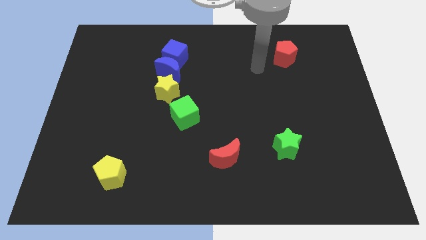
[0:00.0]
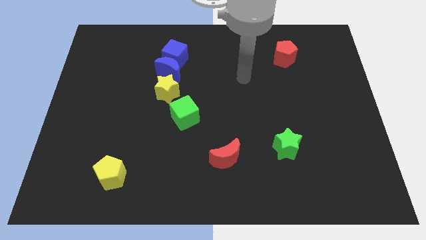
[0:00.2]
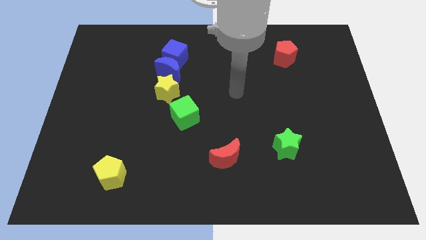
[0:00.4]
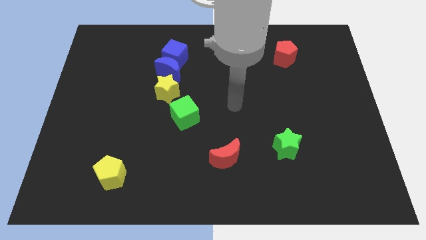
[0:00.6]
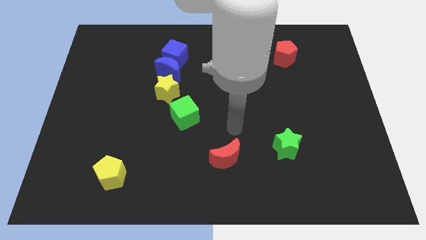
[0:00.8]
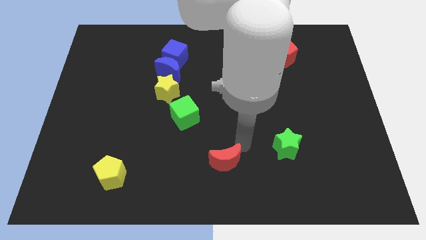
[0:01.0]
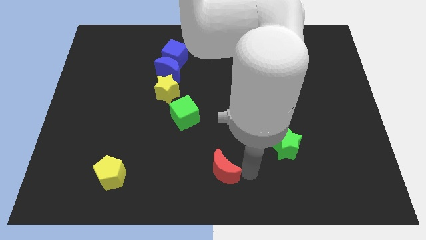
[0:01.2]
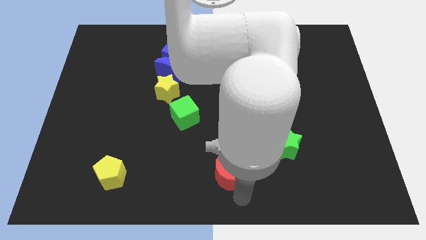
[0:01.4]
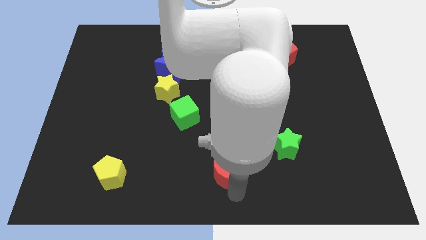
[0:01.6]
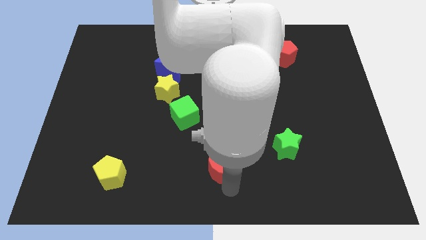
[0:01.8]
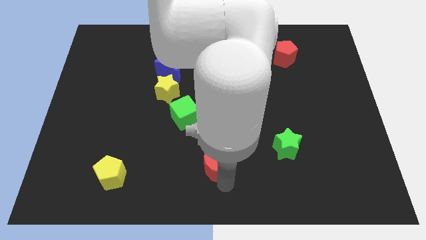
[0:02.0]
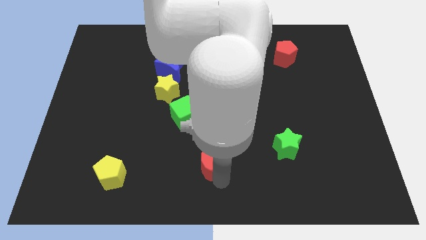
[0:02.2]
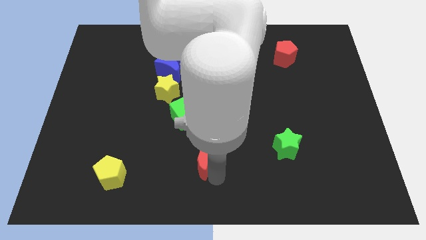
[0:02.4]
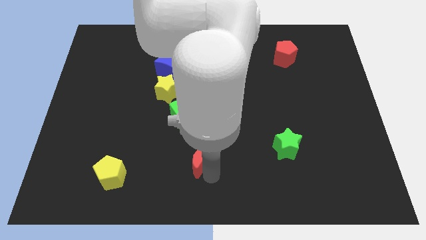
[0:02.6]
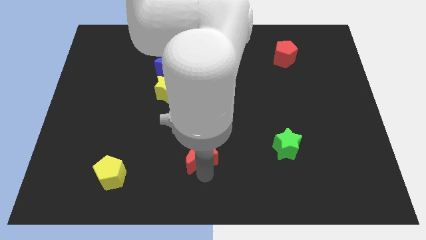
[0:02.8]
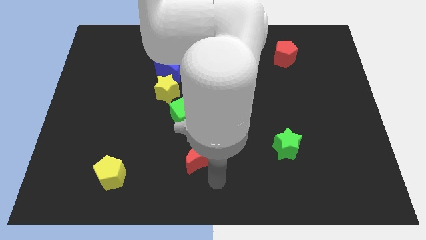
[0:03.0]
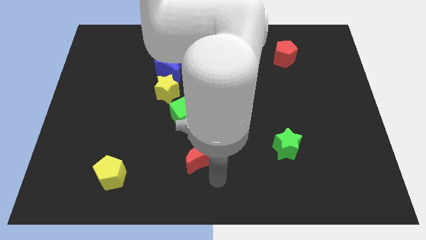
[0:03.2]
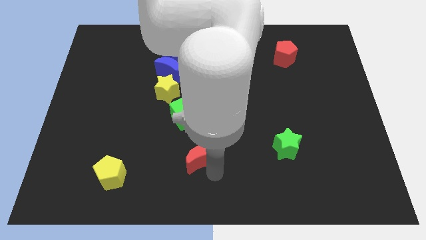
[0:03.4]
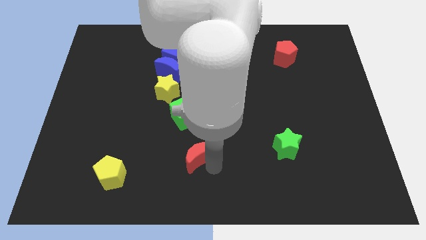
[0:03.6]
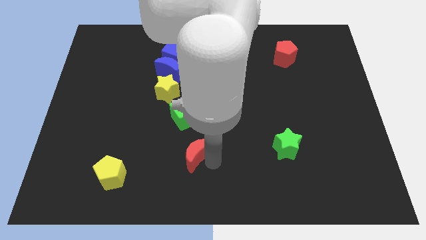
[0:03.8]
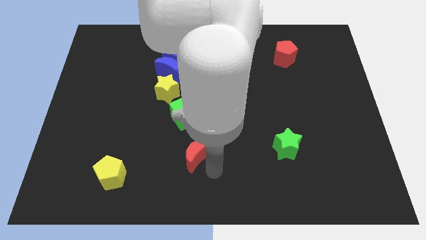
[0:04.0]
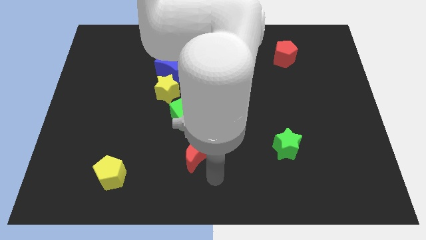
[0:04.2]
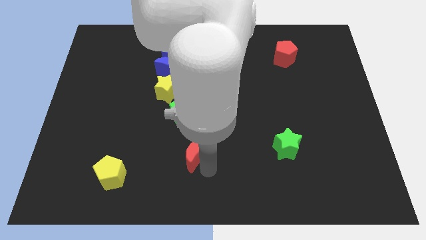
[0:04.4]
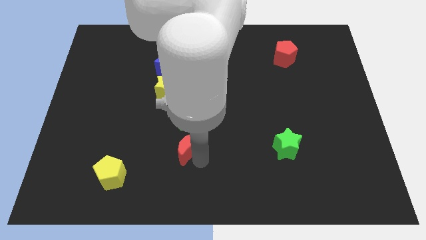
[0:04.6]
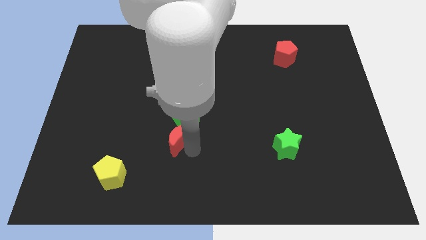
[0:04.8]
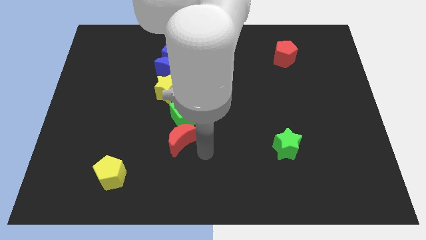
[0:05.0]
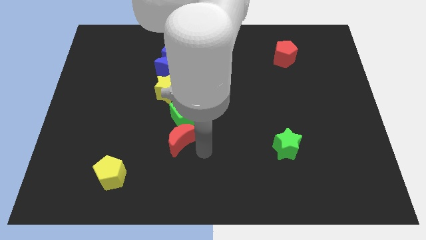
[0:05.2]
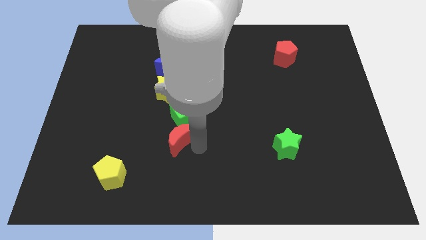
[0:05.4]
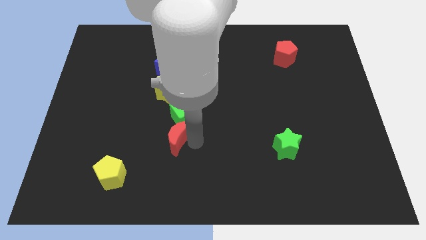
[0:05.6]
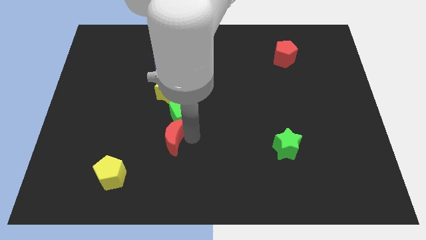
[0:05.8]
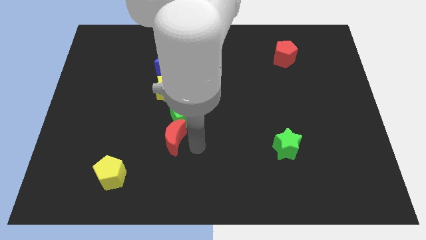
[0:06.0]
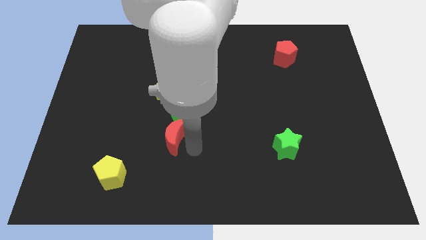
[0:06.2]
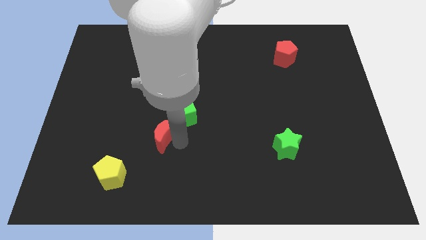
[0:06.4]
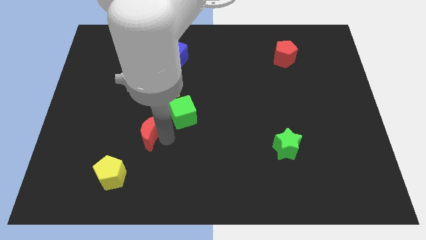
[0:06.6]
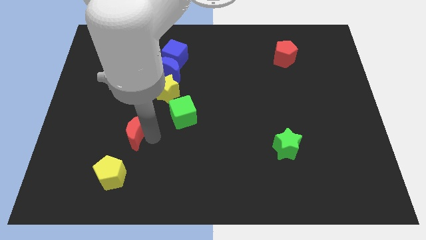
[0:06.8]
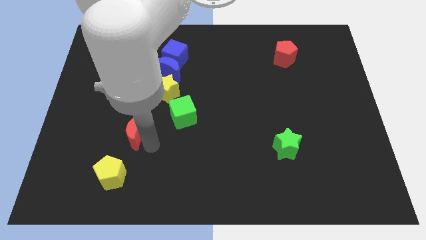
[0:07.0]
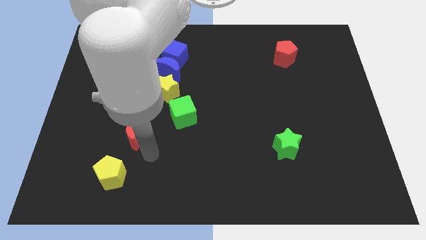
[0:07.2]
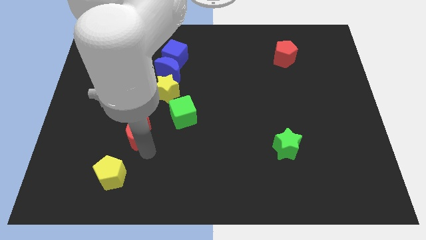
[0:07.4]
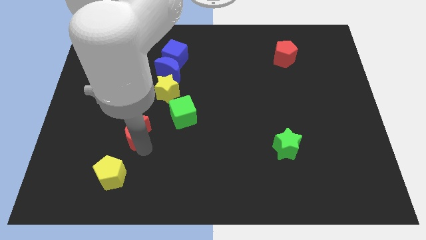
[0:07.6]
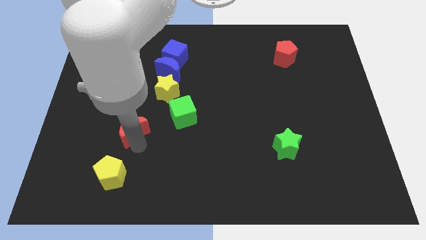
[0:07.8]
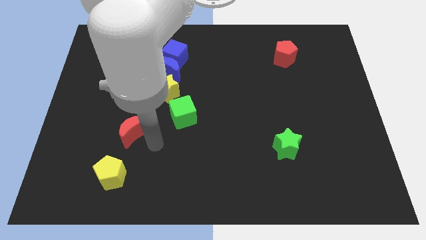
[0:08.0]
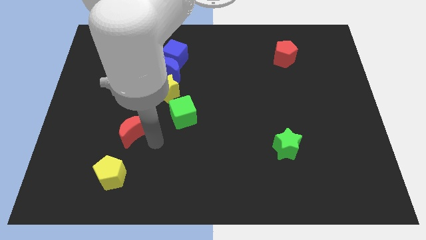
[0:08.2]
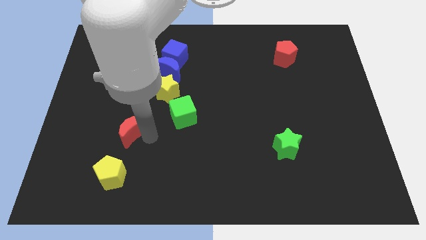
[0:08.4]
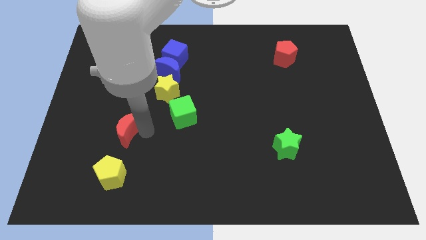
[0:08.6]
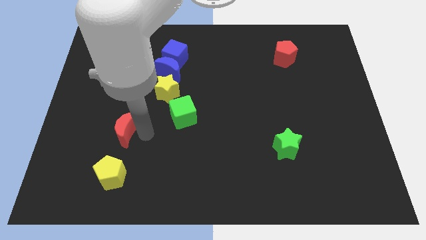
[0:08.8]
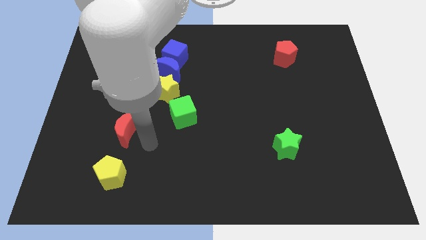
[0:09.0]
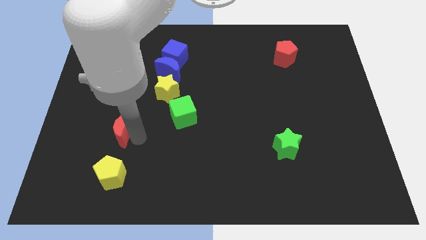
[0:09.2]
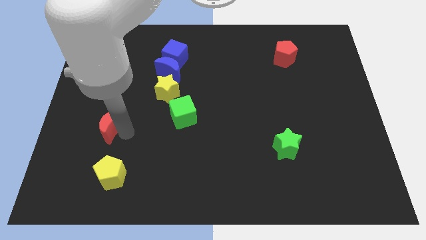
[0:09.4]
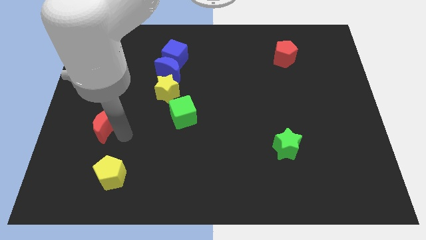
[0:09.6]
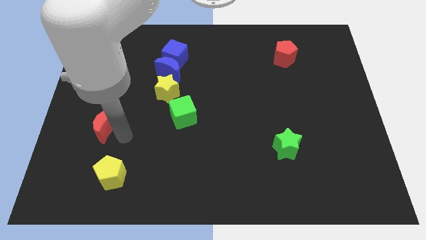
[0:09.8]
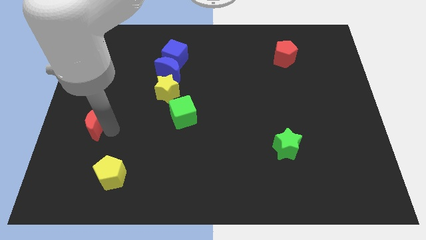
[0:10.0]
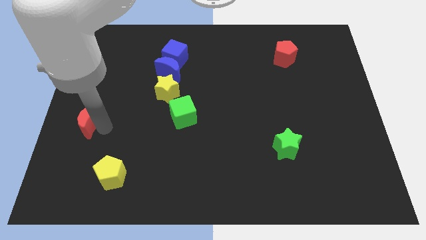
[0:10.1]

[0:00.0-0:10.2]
push the red moon to the left side of the board

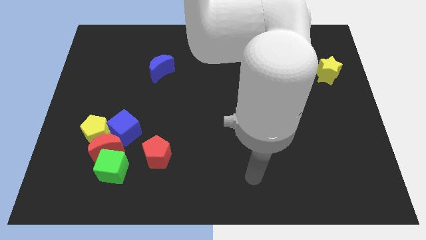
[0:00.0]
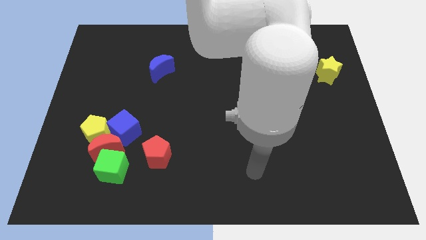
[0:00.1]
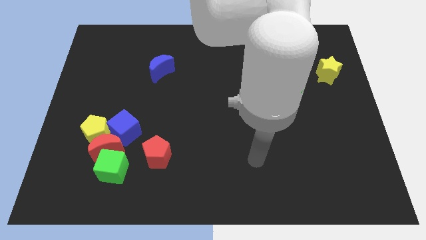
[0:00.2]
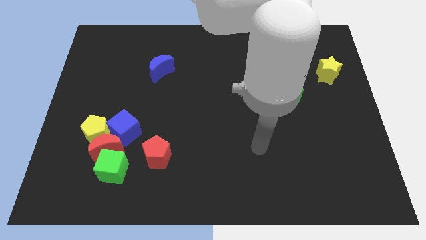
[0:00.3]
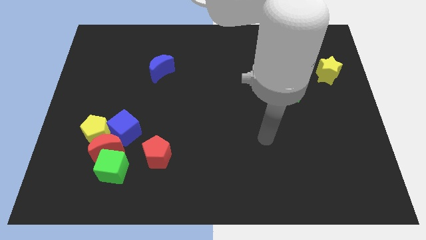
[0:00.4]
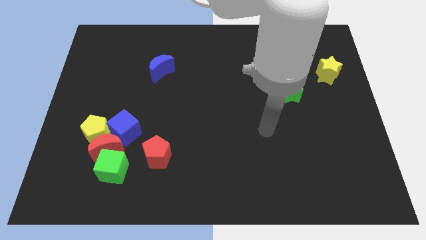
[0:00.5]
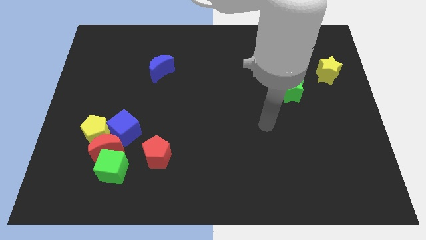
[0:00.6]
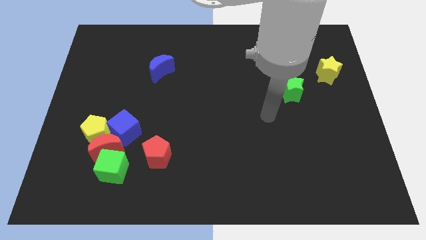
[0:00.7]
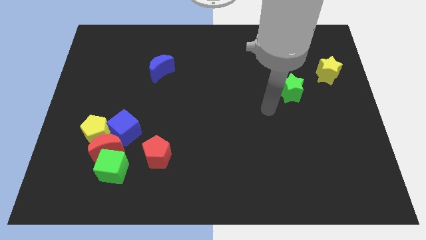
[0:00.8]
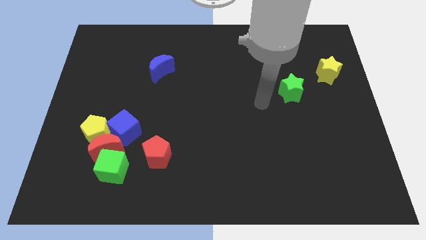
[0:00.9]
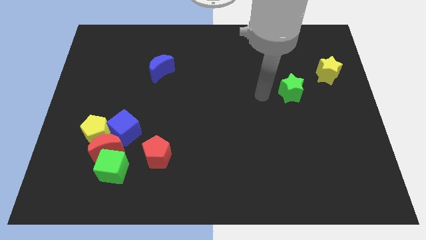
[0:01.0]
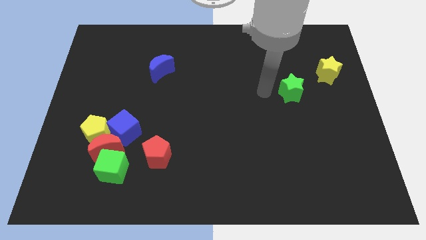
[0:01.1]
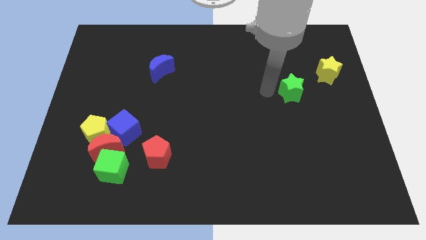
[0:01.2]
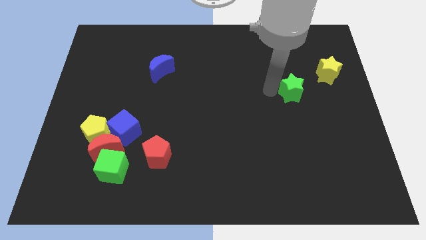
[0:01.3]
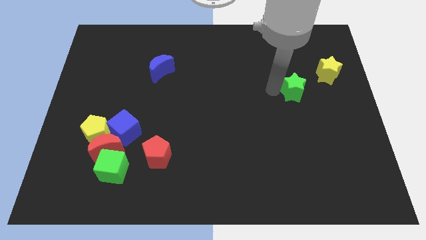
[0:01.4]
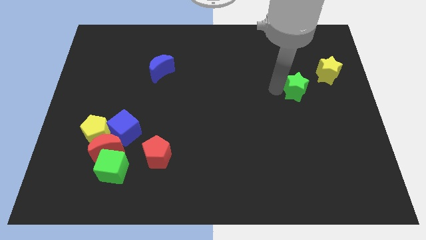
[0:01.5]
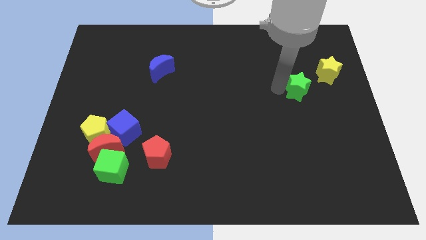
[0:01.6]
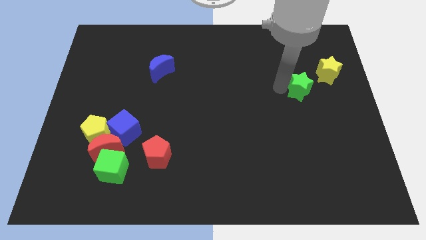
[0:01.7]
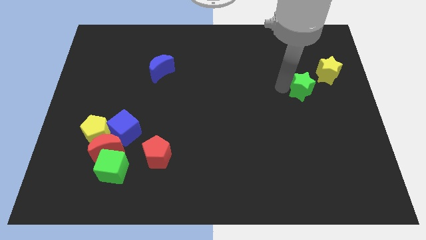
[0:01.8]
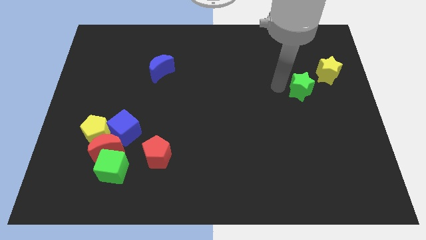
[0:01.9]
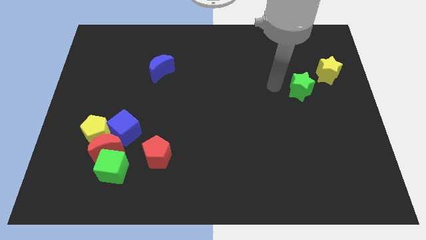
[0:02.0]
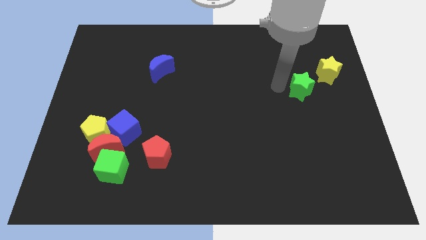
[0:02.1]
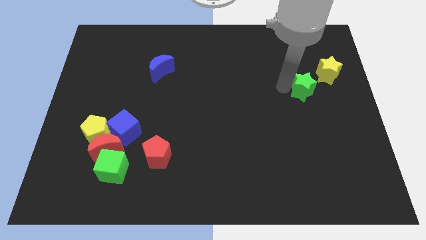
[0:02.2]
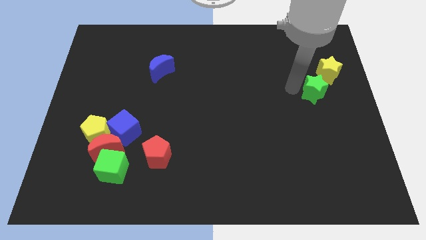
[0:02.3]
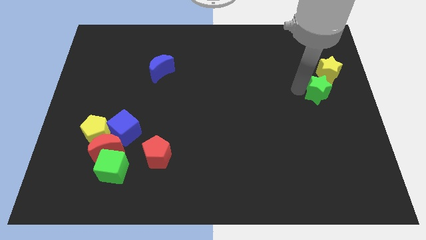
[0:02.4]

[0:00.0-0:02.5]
push the green star to the center right
